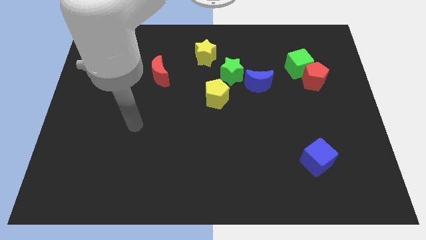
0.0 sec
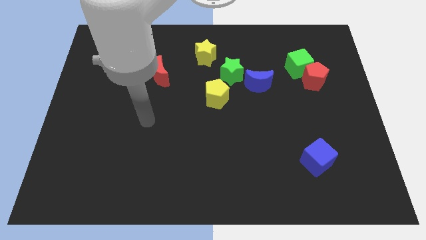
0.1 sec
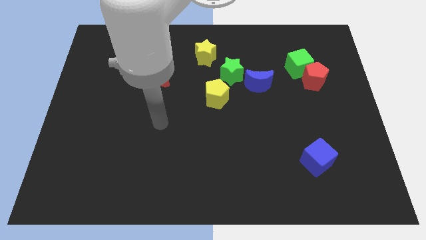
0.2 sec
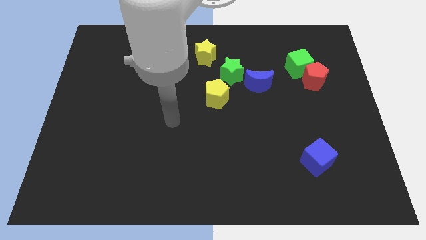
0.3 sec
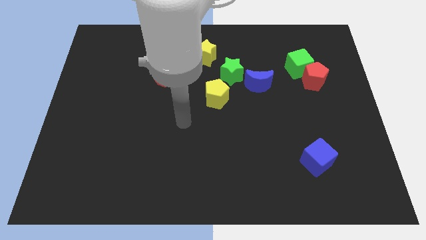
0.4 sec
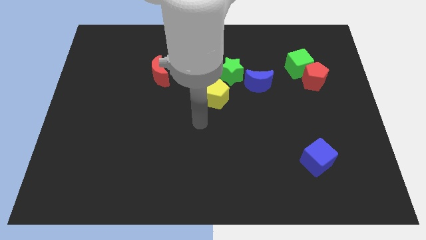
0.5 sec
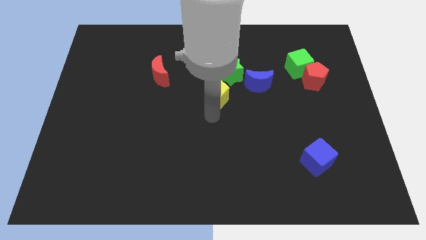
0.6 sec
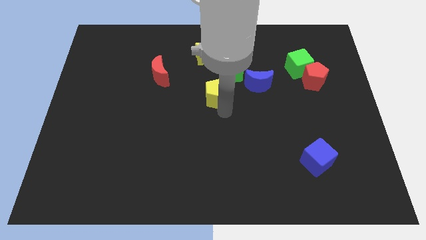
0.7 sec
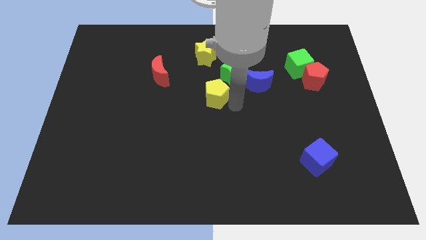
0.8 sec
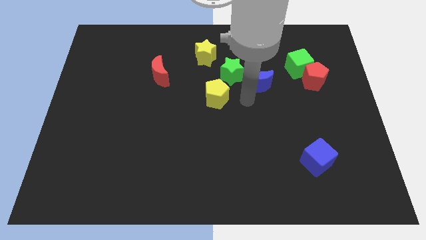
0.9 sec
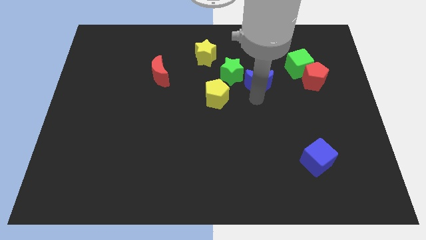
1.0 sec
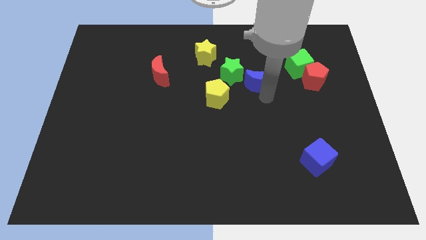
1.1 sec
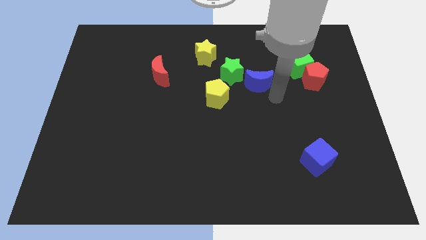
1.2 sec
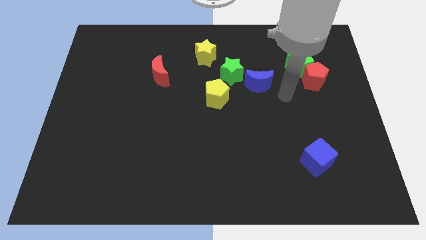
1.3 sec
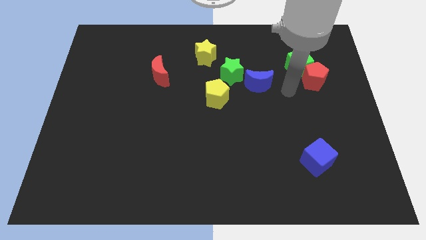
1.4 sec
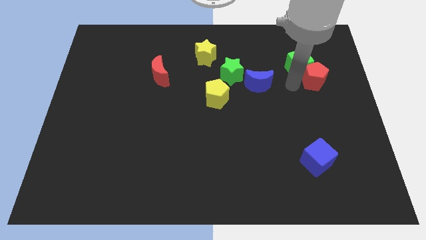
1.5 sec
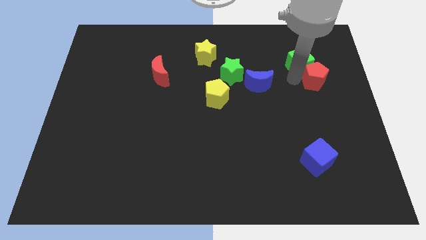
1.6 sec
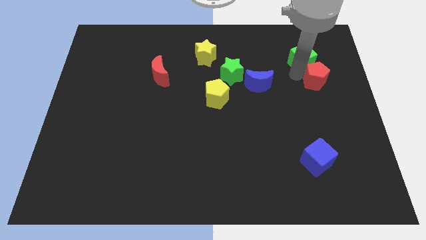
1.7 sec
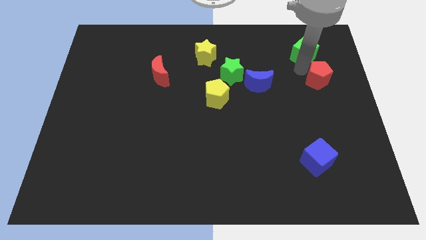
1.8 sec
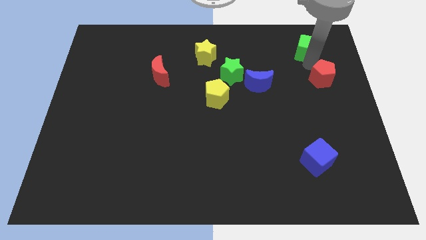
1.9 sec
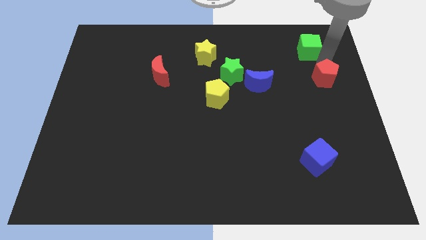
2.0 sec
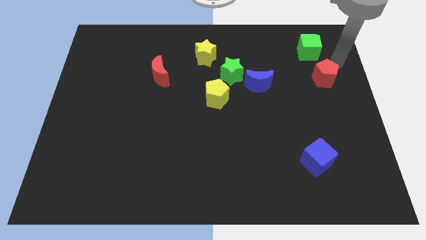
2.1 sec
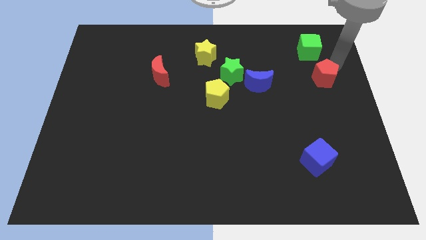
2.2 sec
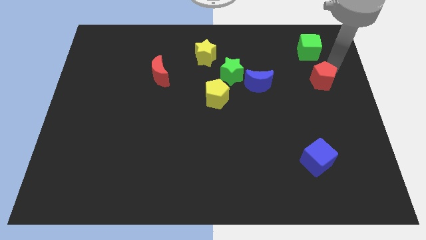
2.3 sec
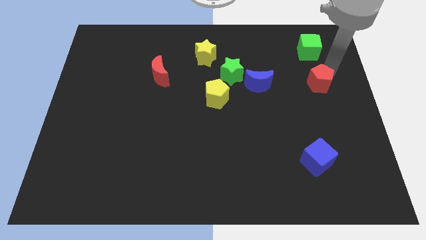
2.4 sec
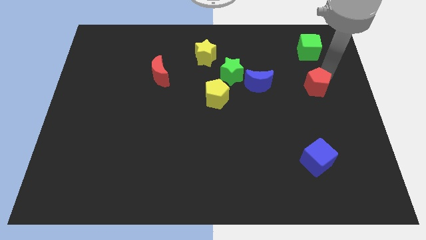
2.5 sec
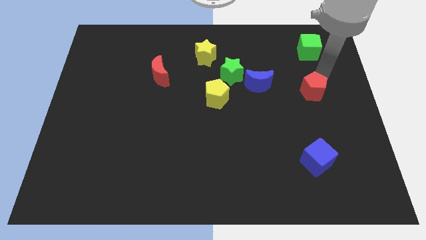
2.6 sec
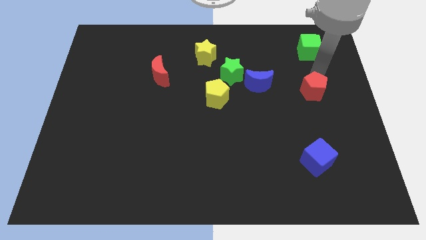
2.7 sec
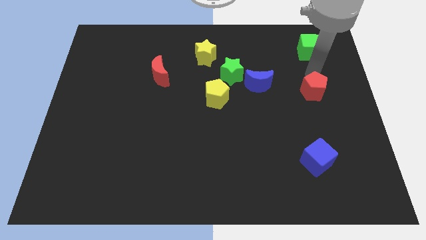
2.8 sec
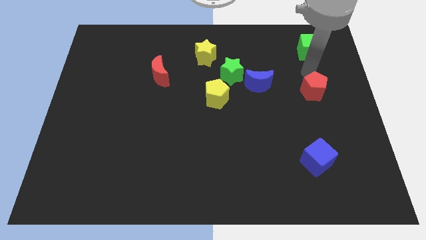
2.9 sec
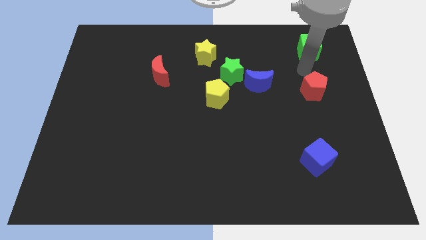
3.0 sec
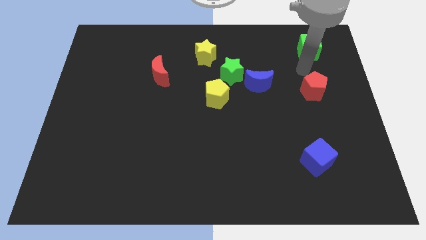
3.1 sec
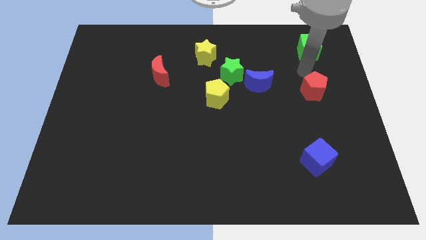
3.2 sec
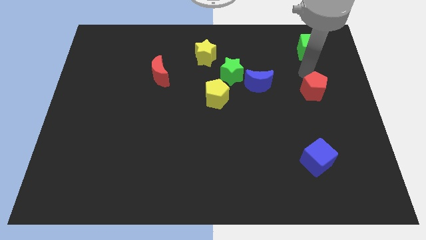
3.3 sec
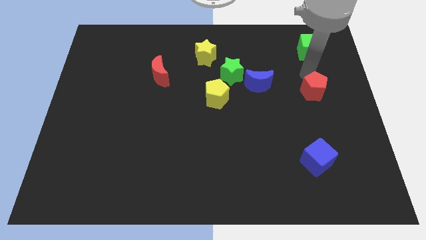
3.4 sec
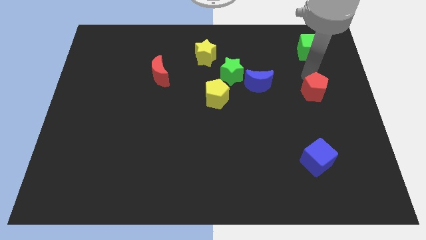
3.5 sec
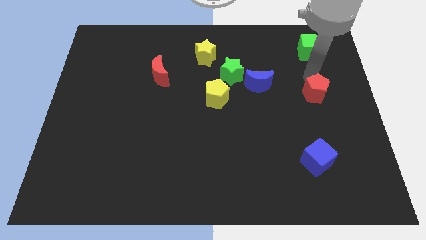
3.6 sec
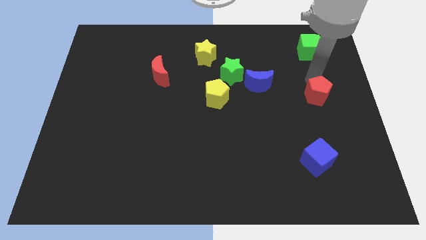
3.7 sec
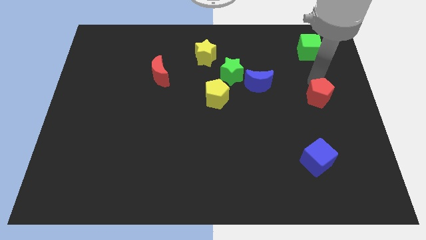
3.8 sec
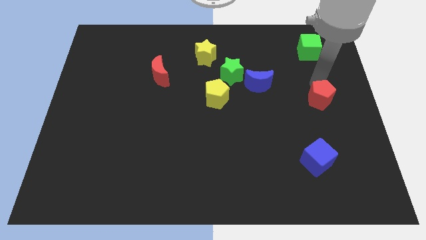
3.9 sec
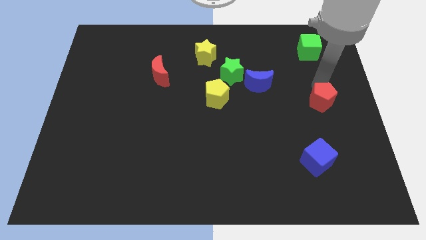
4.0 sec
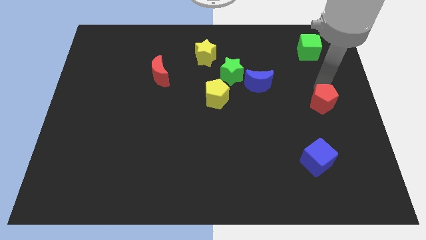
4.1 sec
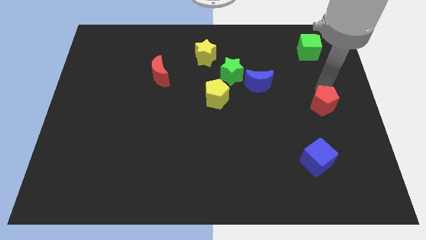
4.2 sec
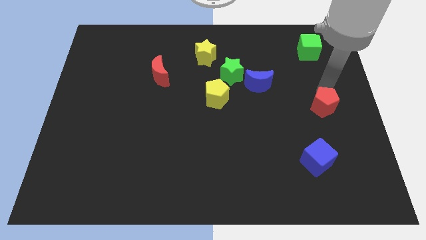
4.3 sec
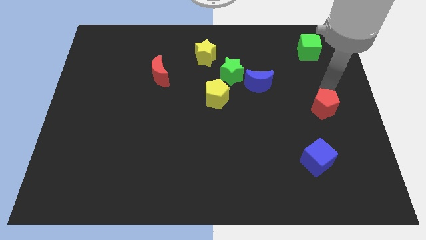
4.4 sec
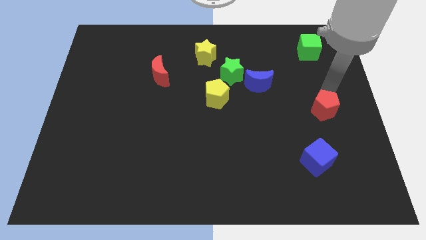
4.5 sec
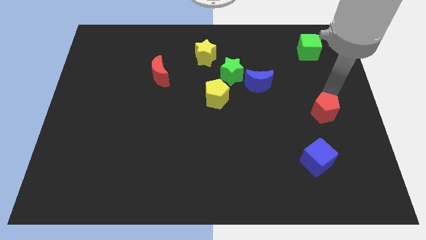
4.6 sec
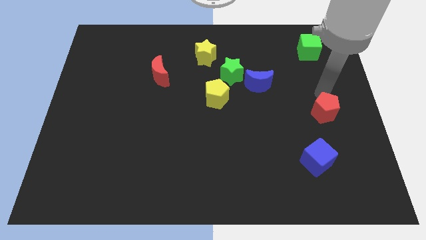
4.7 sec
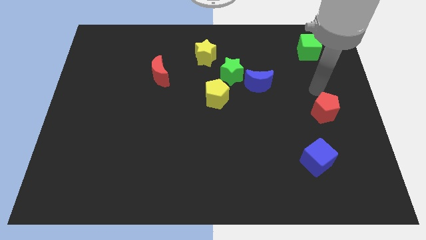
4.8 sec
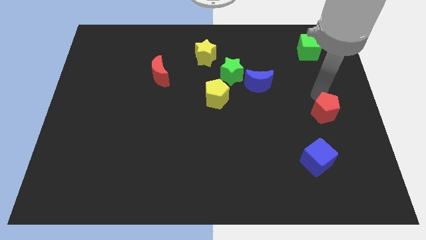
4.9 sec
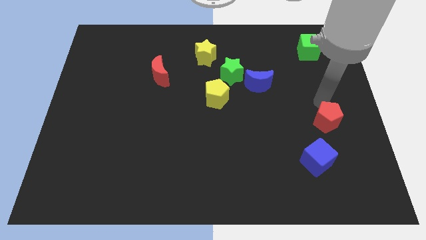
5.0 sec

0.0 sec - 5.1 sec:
slide the red pentagon to the top right of the blue cube

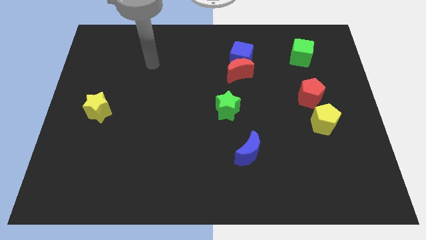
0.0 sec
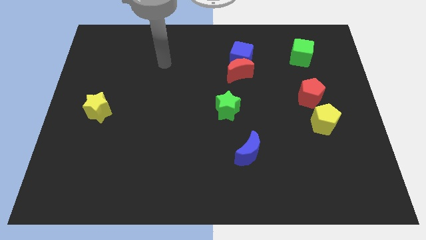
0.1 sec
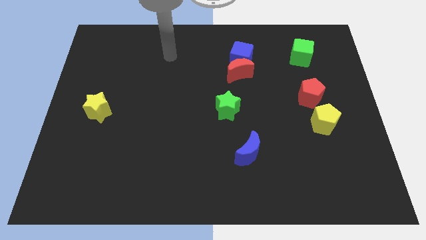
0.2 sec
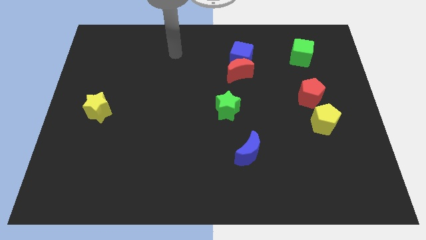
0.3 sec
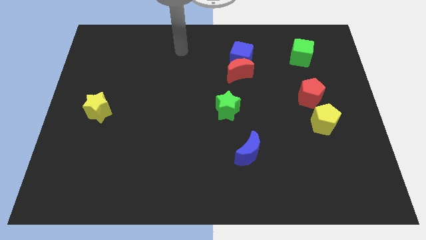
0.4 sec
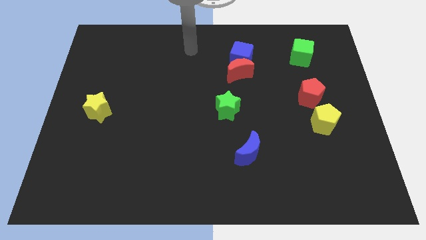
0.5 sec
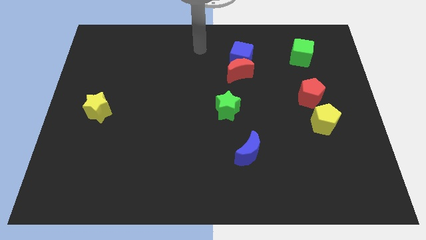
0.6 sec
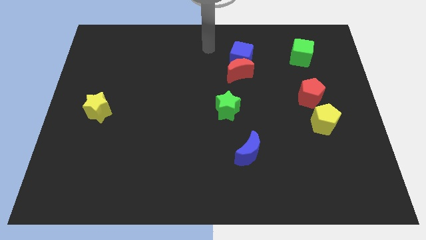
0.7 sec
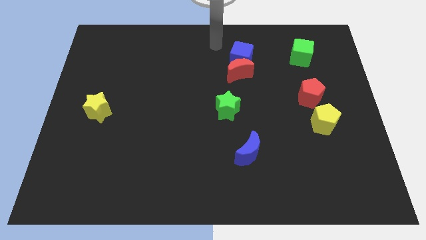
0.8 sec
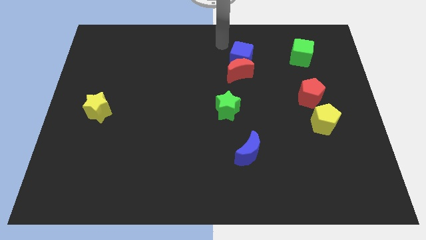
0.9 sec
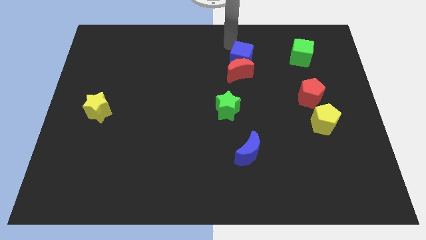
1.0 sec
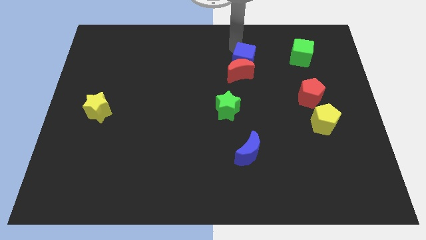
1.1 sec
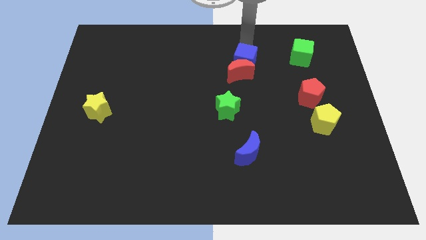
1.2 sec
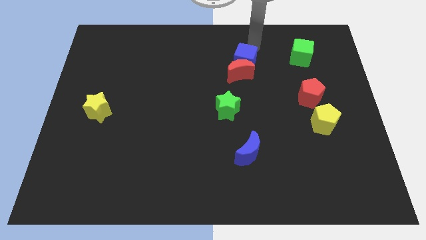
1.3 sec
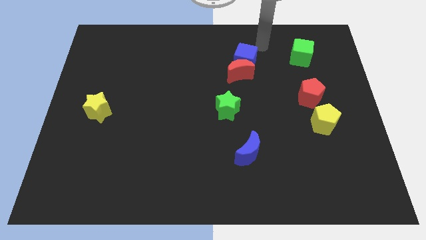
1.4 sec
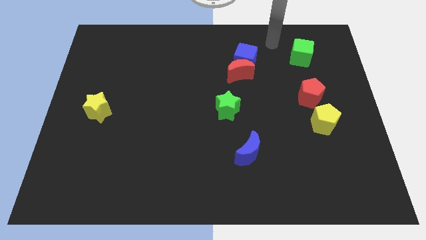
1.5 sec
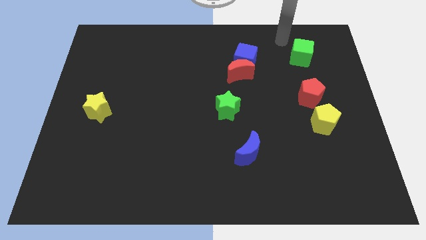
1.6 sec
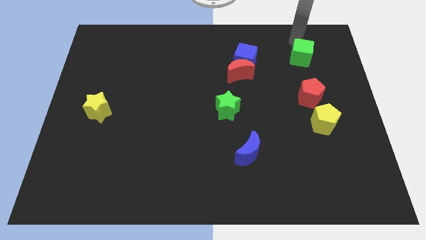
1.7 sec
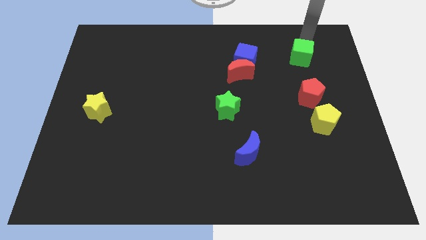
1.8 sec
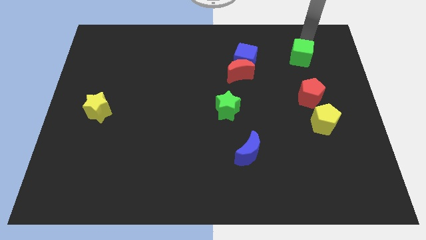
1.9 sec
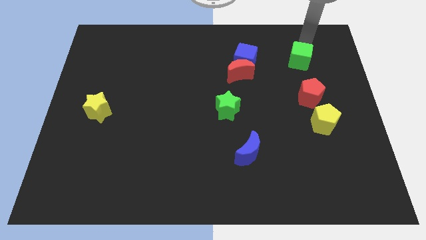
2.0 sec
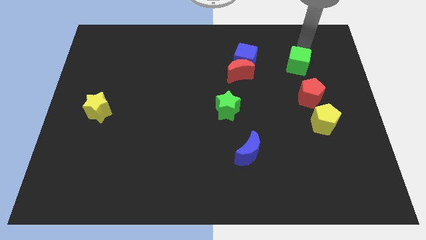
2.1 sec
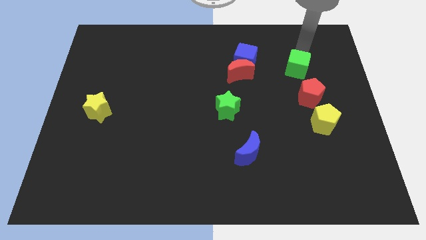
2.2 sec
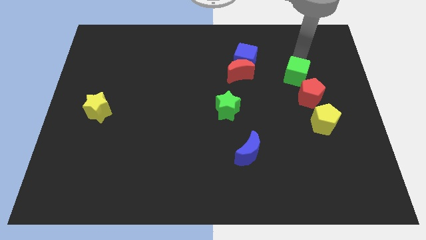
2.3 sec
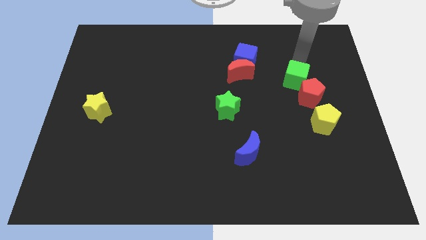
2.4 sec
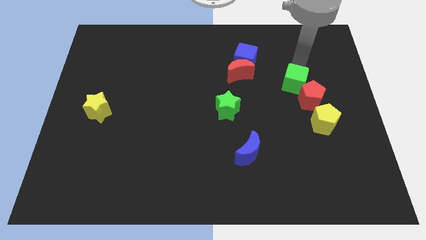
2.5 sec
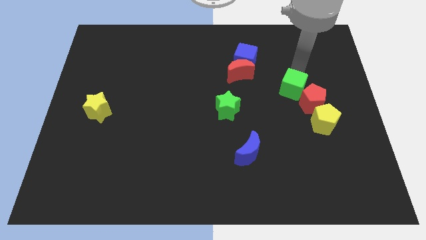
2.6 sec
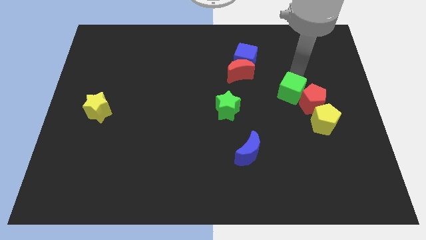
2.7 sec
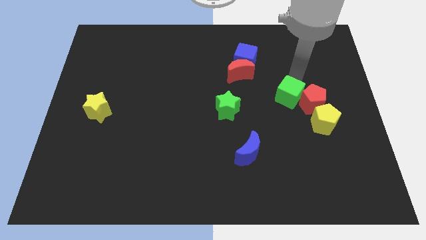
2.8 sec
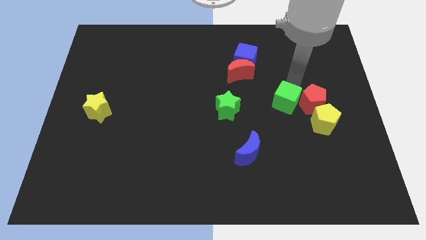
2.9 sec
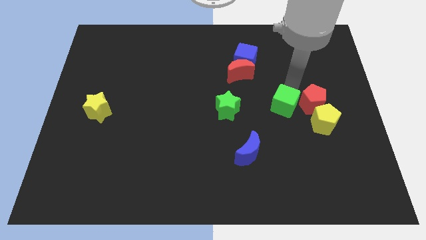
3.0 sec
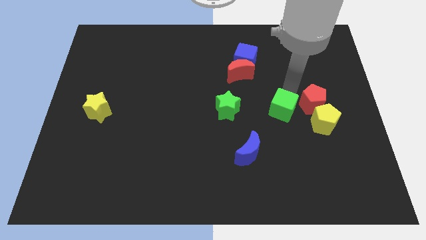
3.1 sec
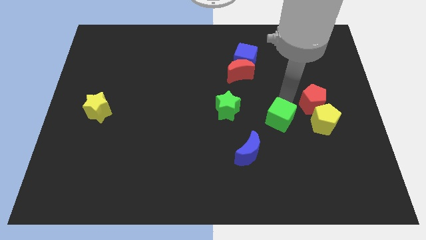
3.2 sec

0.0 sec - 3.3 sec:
push the green cube diagonally up and to the right of the blue moon
